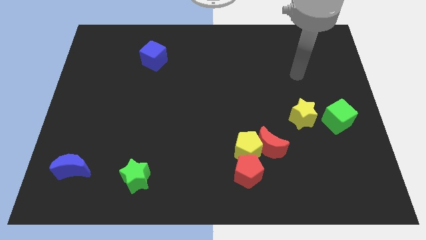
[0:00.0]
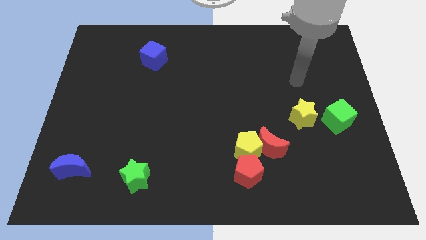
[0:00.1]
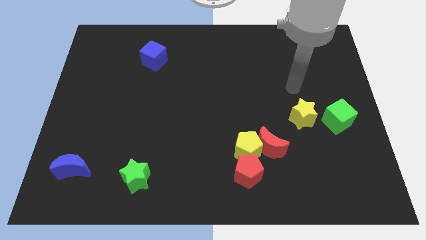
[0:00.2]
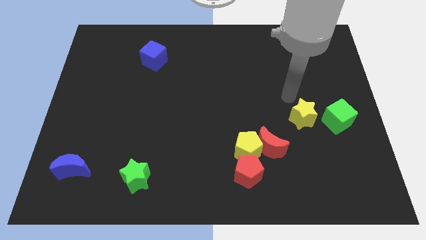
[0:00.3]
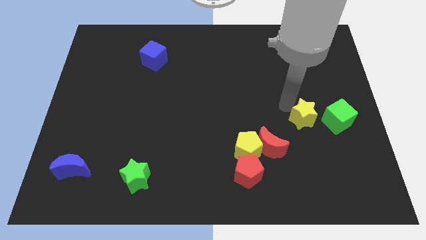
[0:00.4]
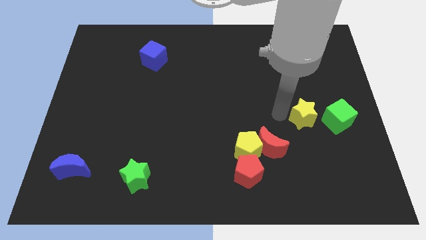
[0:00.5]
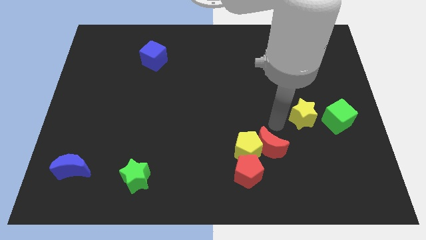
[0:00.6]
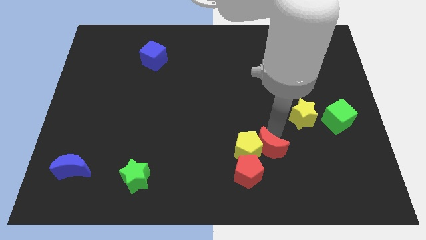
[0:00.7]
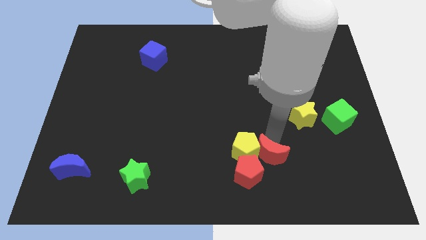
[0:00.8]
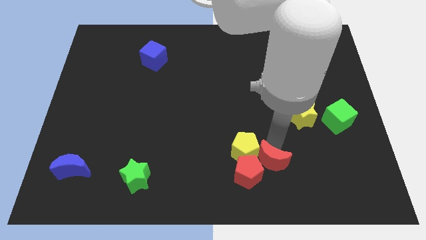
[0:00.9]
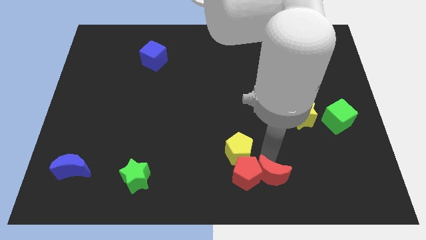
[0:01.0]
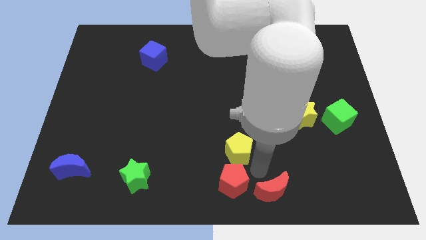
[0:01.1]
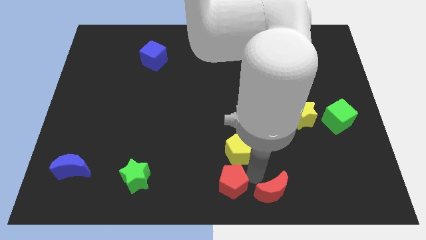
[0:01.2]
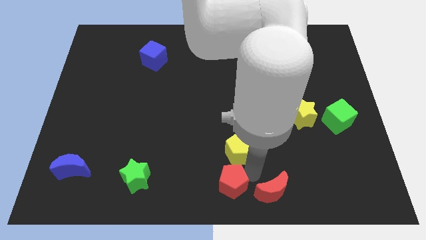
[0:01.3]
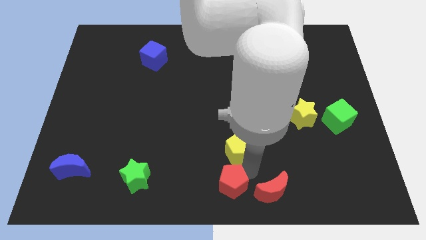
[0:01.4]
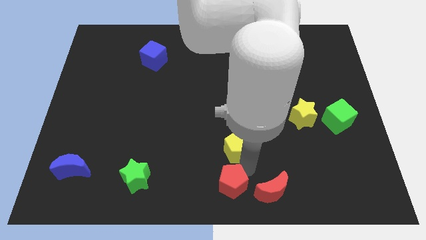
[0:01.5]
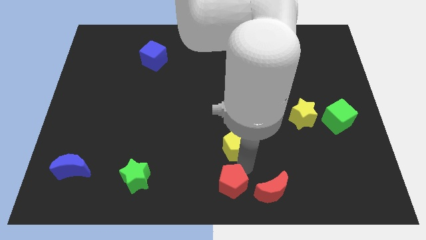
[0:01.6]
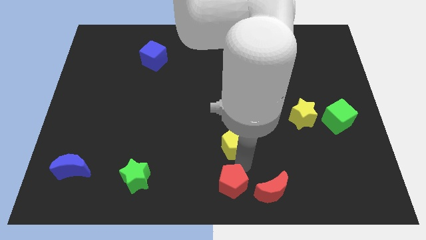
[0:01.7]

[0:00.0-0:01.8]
move the yellow pentagon away from the red moon and red pentagon

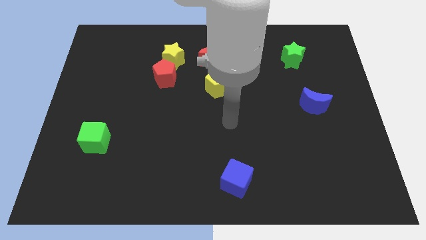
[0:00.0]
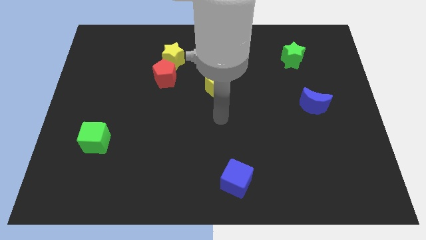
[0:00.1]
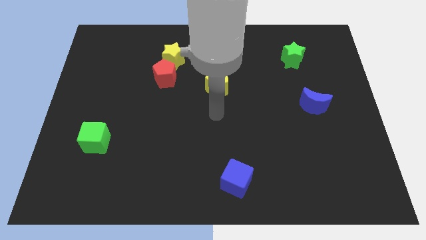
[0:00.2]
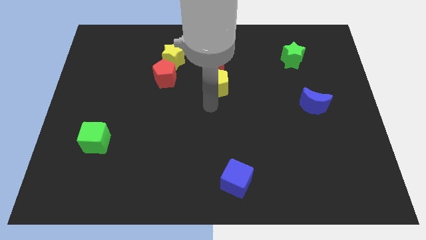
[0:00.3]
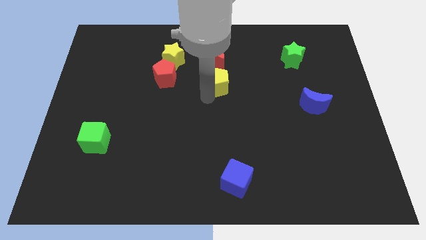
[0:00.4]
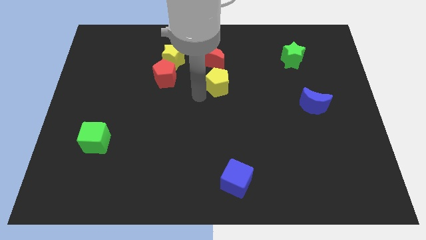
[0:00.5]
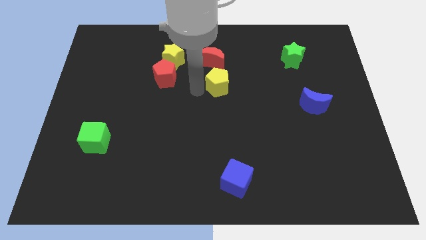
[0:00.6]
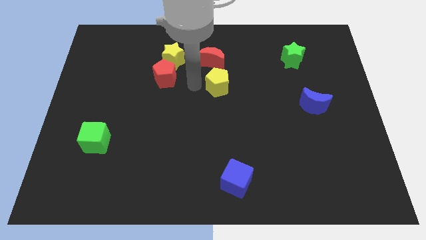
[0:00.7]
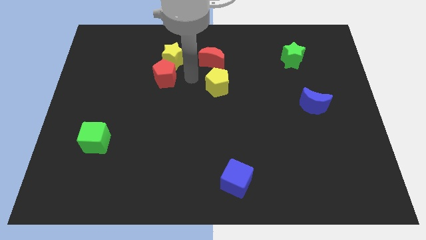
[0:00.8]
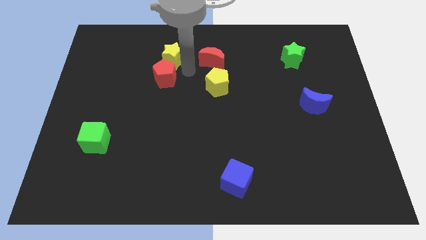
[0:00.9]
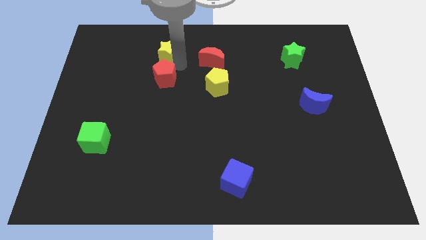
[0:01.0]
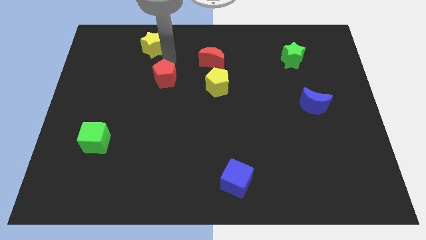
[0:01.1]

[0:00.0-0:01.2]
separate the red pentagon from the yellow star

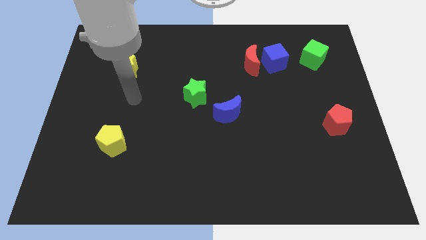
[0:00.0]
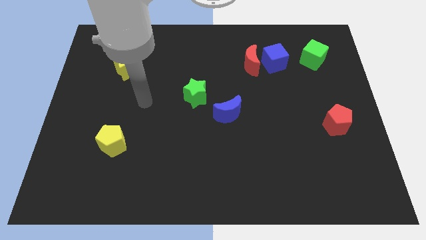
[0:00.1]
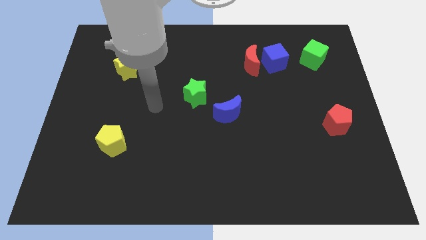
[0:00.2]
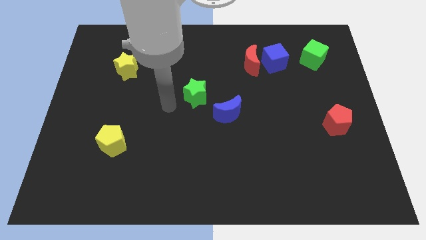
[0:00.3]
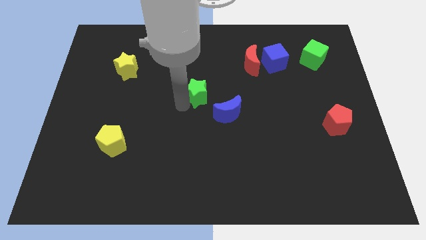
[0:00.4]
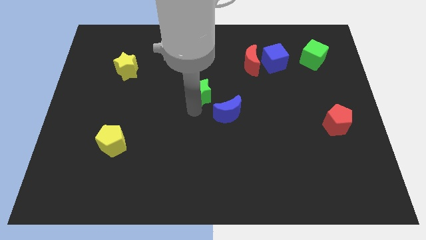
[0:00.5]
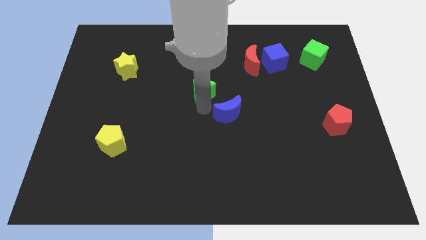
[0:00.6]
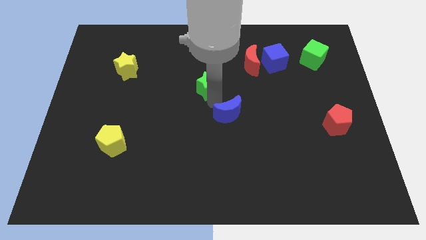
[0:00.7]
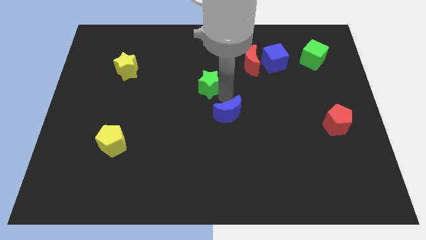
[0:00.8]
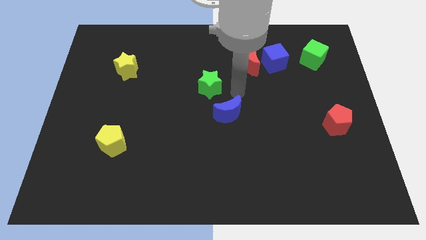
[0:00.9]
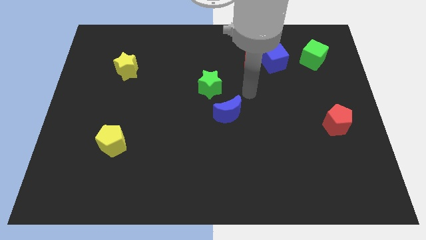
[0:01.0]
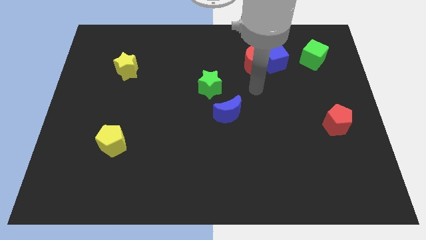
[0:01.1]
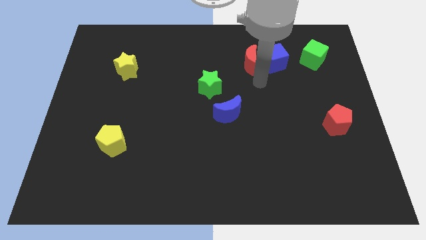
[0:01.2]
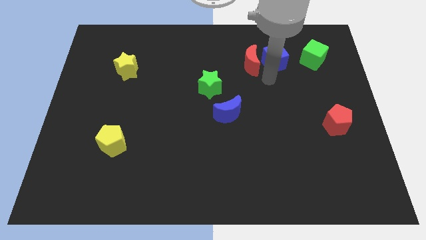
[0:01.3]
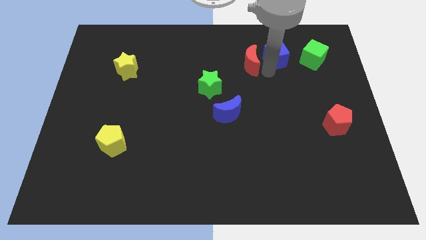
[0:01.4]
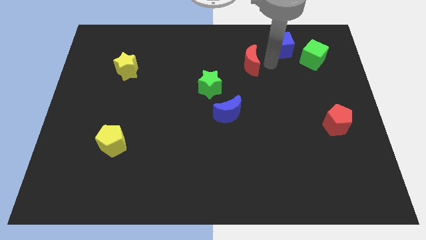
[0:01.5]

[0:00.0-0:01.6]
separate the red moon from the blue cube

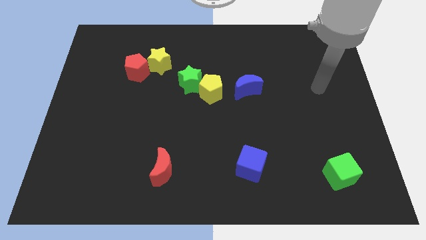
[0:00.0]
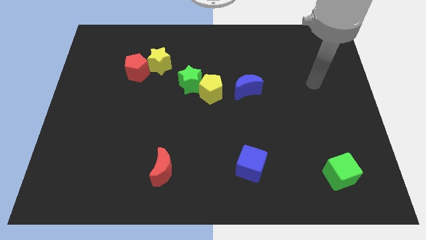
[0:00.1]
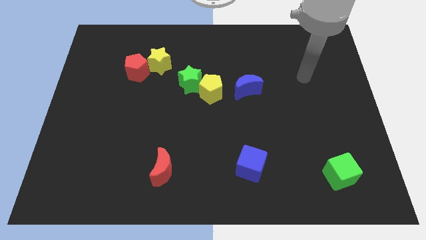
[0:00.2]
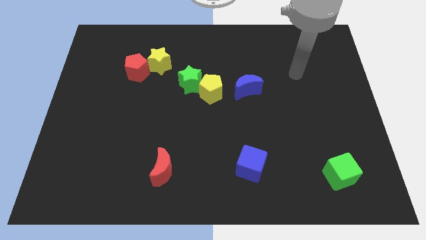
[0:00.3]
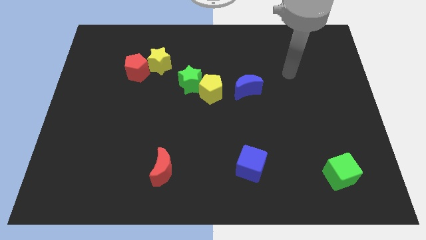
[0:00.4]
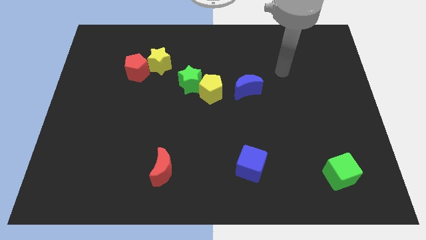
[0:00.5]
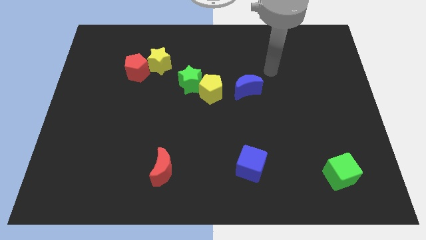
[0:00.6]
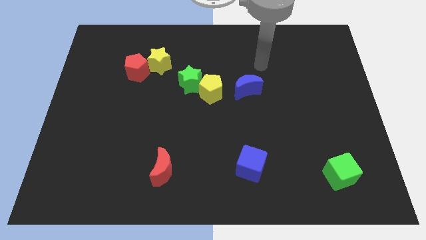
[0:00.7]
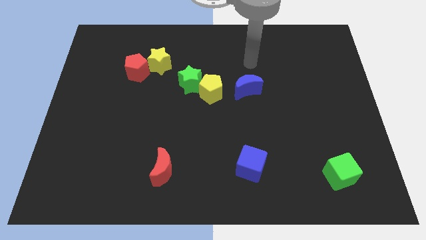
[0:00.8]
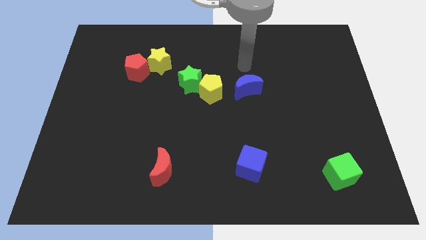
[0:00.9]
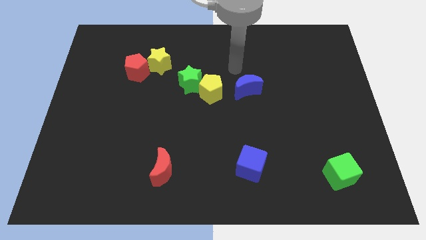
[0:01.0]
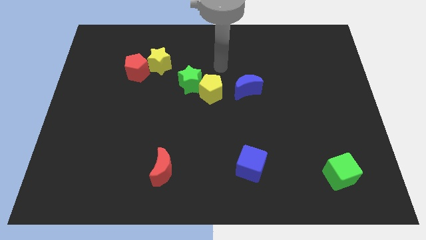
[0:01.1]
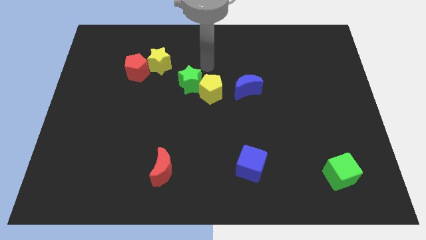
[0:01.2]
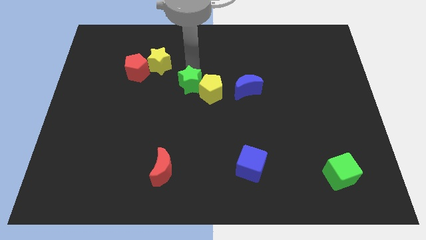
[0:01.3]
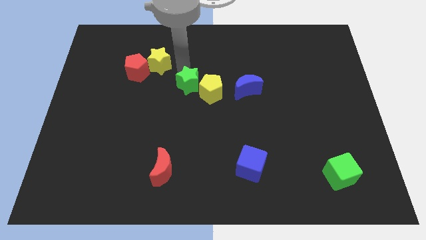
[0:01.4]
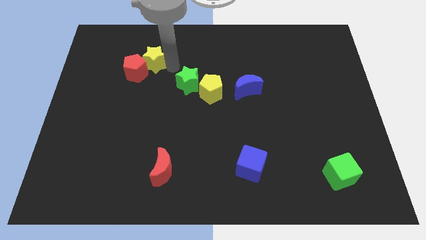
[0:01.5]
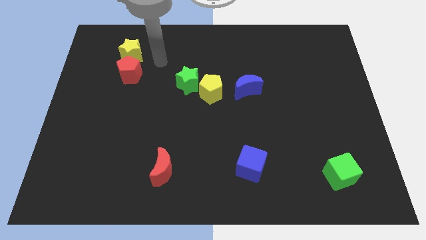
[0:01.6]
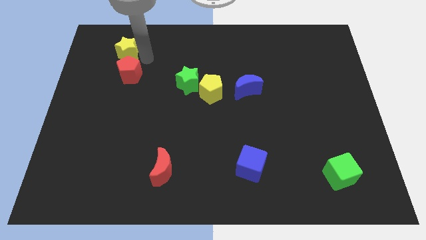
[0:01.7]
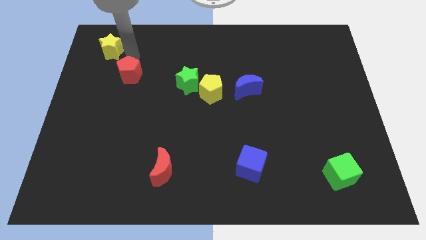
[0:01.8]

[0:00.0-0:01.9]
pull the red pentagon apart from the yellow star

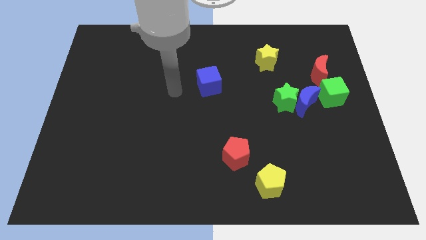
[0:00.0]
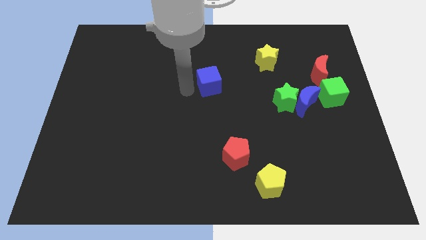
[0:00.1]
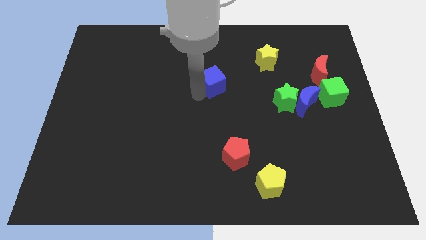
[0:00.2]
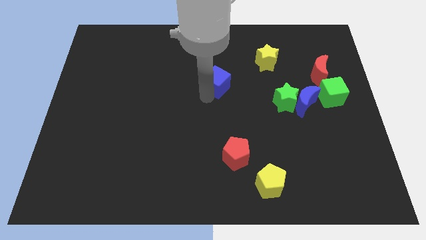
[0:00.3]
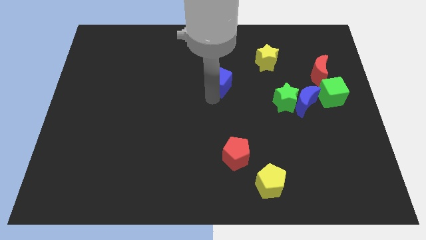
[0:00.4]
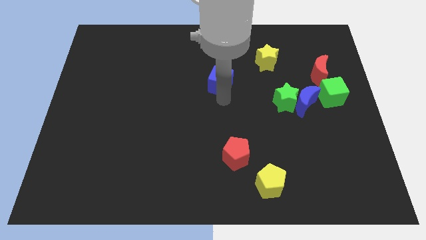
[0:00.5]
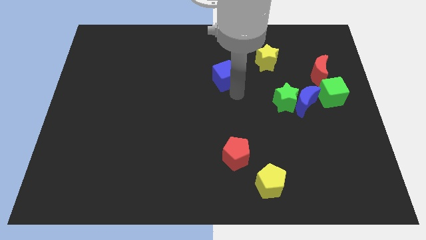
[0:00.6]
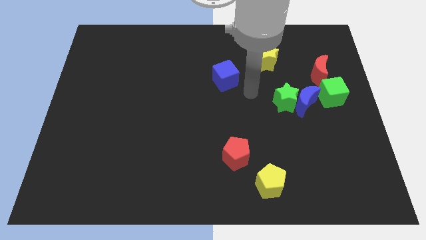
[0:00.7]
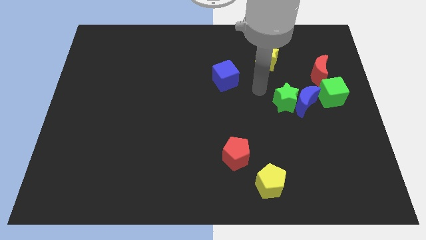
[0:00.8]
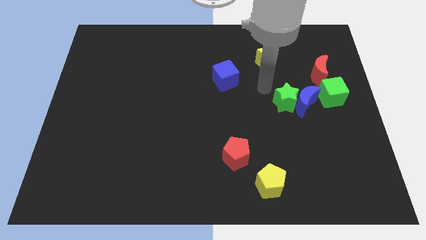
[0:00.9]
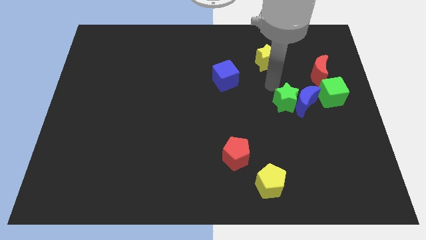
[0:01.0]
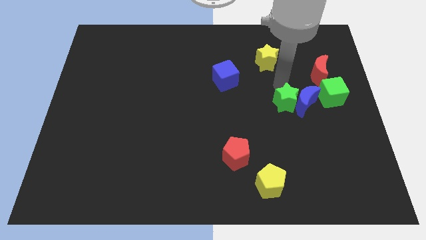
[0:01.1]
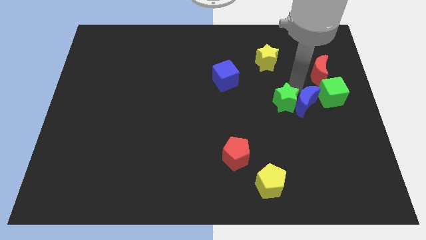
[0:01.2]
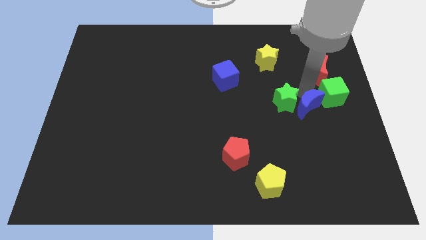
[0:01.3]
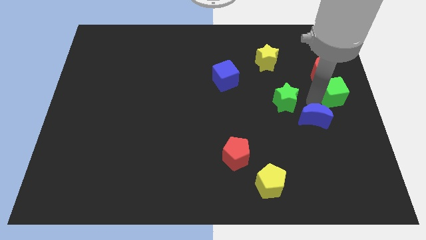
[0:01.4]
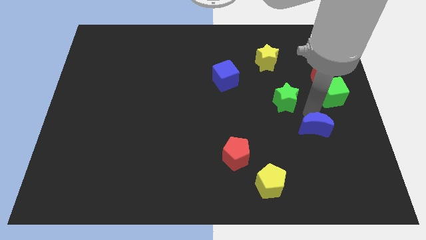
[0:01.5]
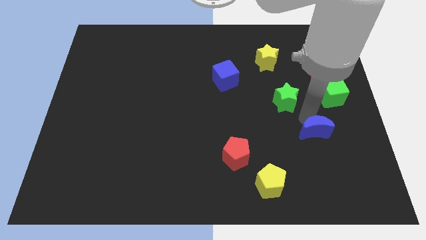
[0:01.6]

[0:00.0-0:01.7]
separate the green star from the blue moon

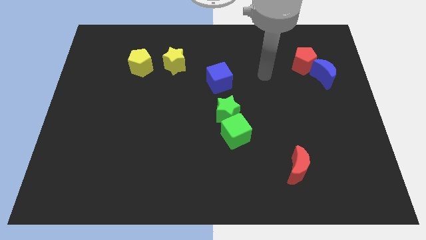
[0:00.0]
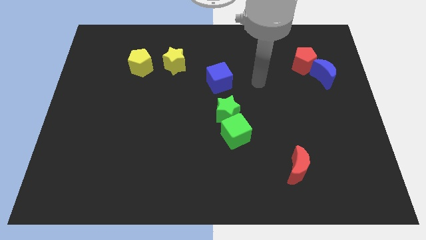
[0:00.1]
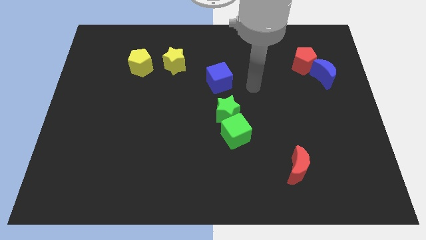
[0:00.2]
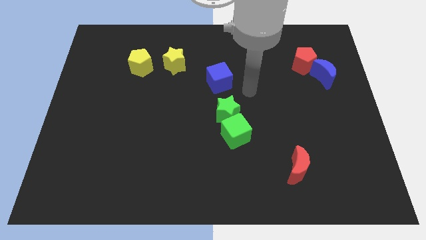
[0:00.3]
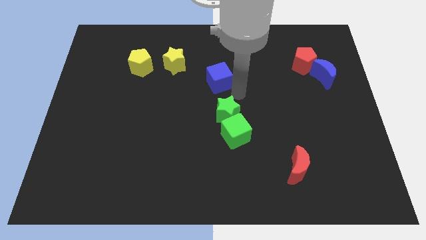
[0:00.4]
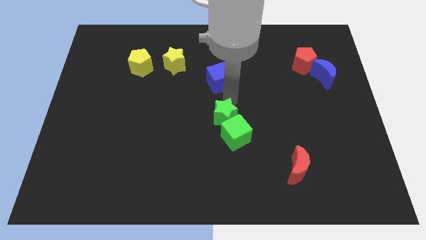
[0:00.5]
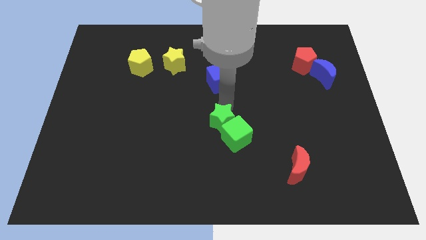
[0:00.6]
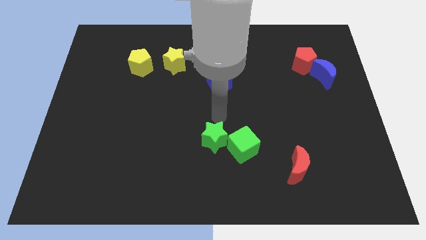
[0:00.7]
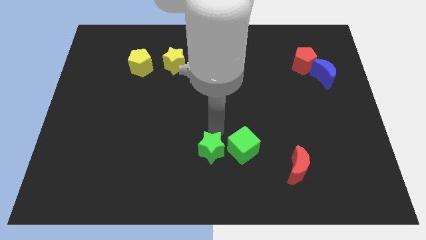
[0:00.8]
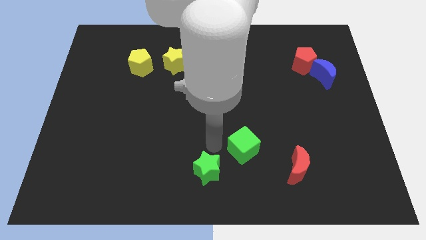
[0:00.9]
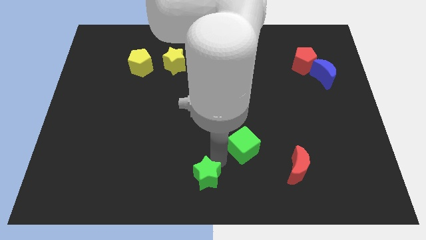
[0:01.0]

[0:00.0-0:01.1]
move the green cube away from the green star

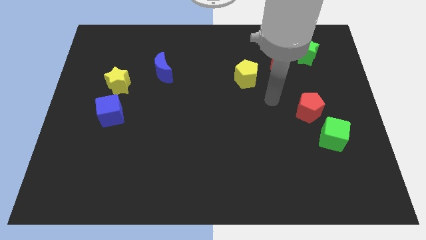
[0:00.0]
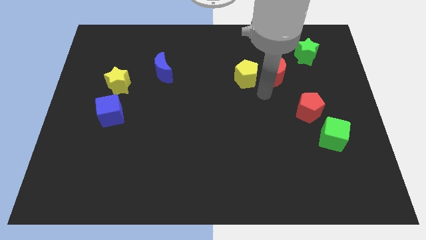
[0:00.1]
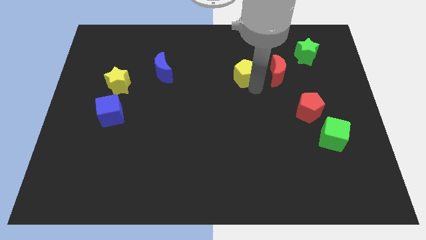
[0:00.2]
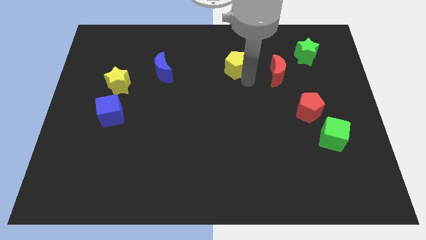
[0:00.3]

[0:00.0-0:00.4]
separate the red moon from the yellow pentagon
